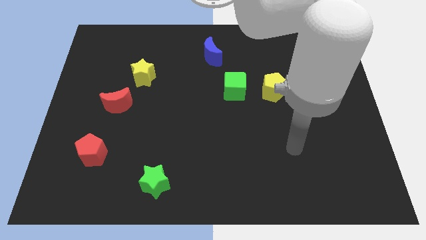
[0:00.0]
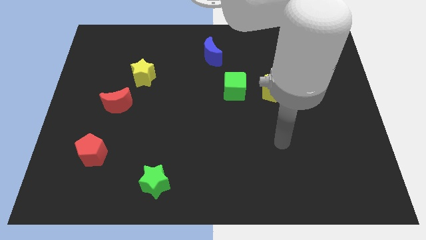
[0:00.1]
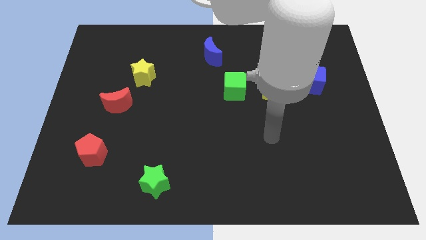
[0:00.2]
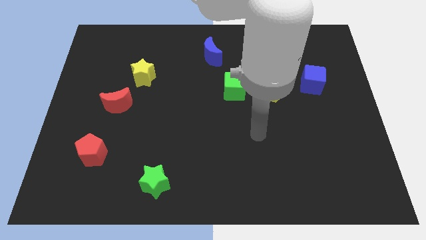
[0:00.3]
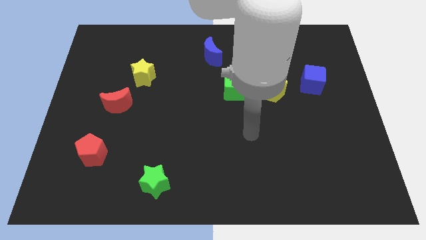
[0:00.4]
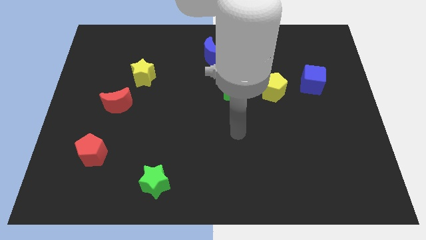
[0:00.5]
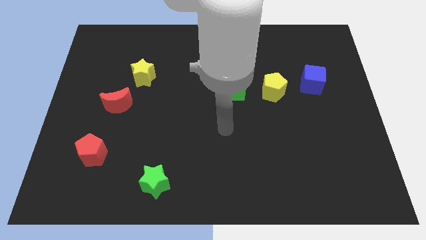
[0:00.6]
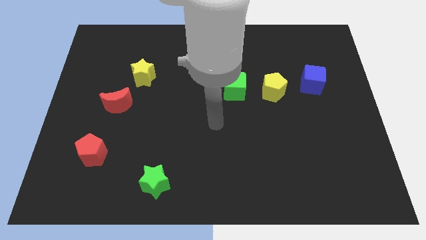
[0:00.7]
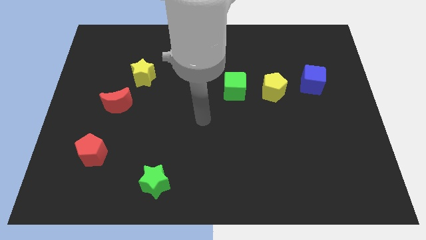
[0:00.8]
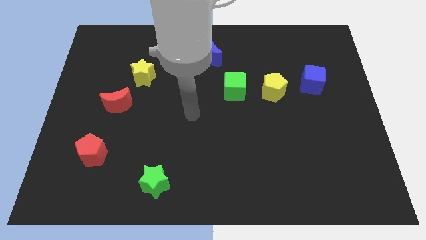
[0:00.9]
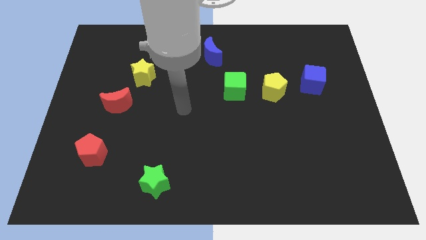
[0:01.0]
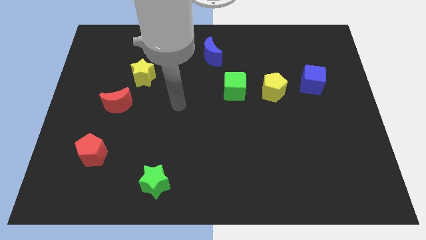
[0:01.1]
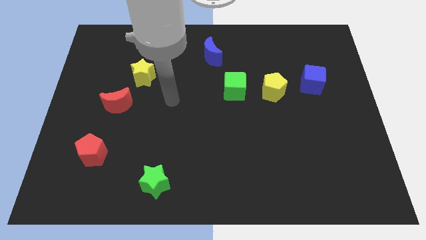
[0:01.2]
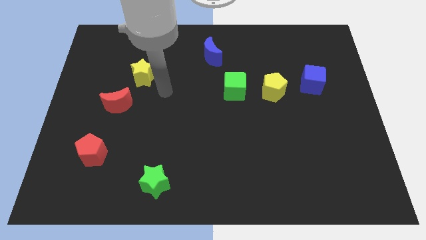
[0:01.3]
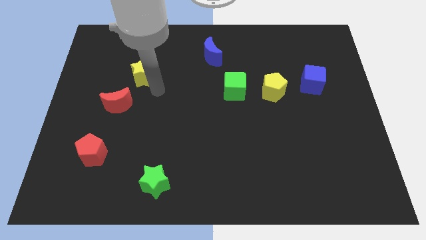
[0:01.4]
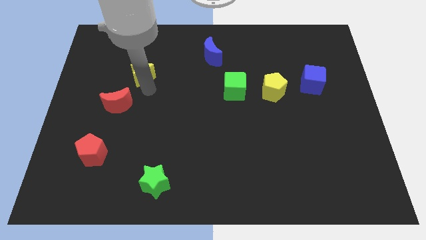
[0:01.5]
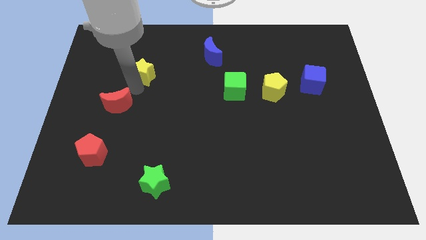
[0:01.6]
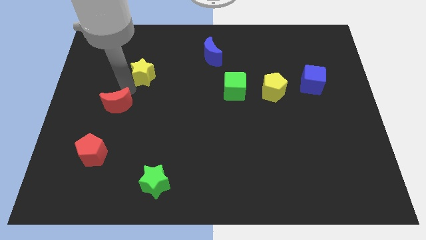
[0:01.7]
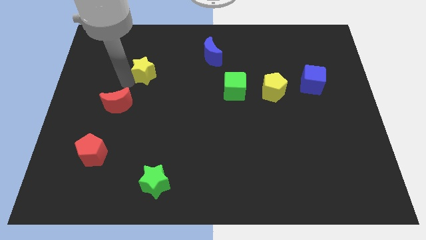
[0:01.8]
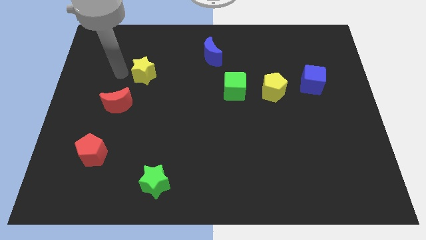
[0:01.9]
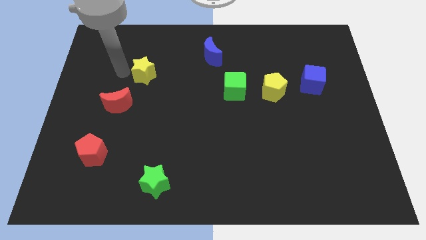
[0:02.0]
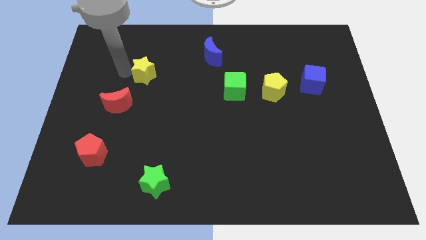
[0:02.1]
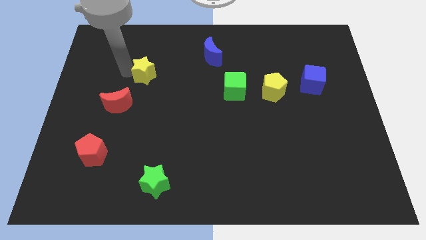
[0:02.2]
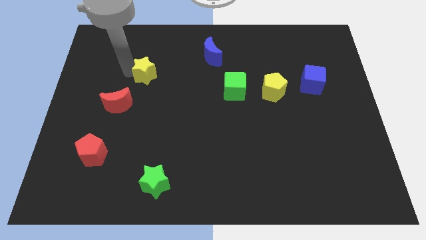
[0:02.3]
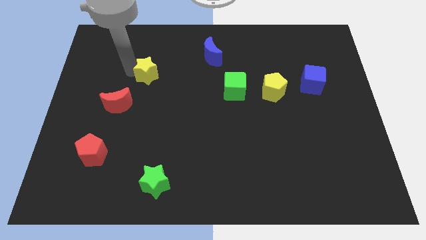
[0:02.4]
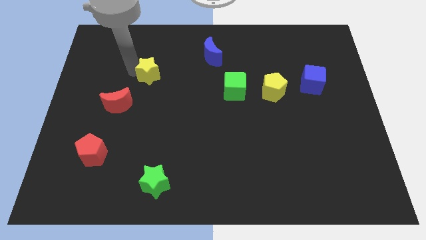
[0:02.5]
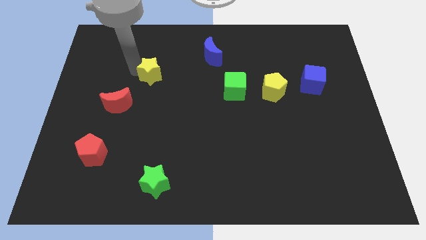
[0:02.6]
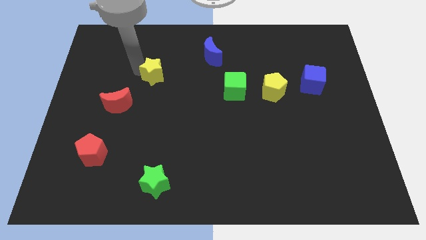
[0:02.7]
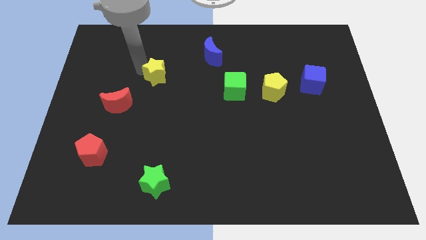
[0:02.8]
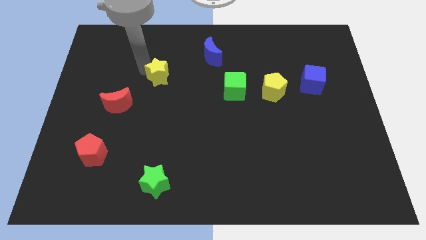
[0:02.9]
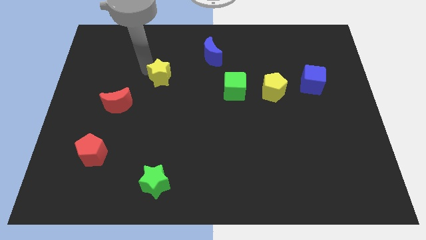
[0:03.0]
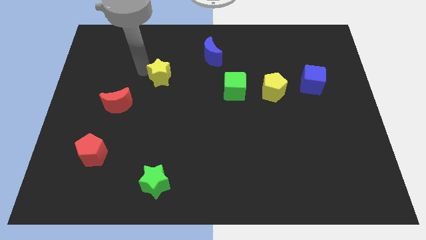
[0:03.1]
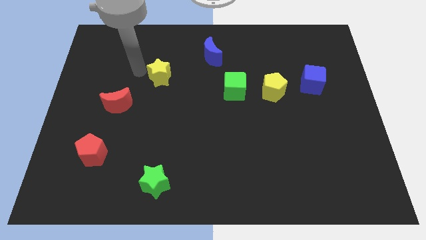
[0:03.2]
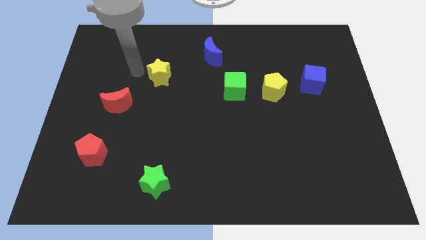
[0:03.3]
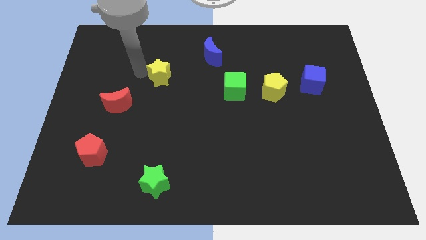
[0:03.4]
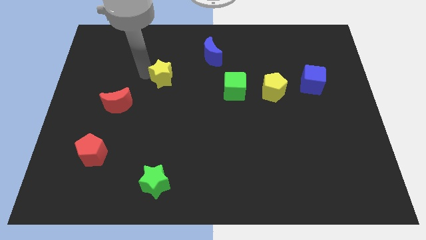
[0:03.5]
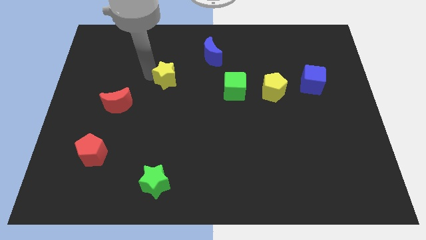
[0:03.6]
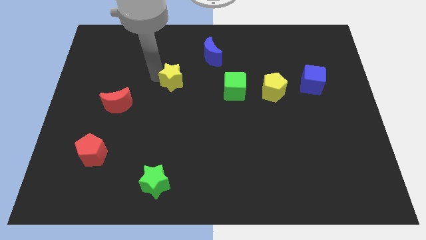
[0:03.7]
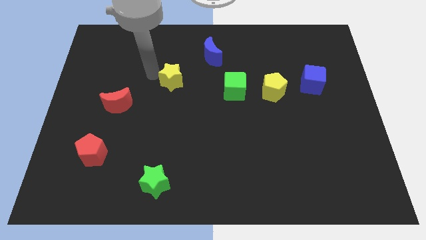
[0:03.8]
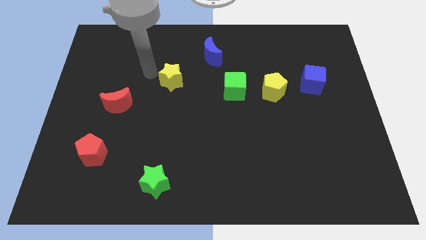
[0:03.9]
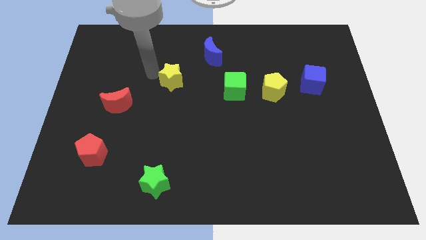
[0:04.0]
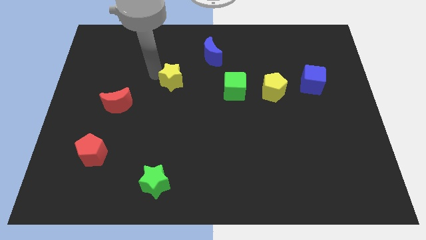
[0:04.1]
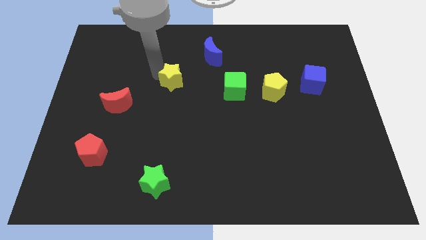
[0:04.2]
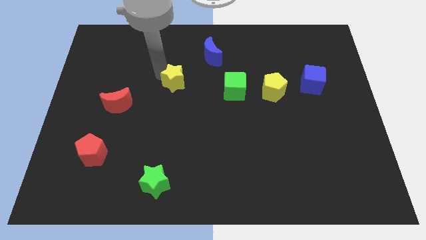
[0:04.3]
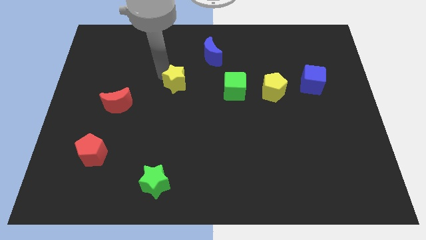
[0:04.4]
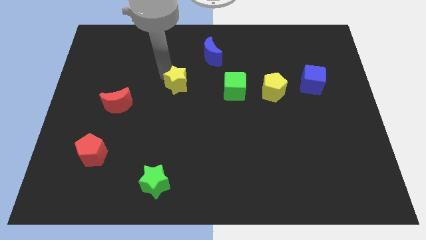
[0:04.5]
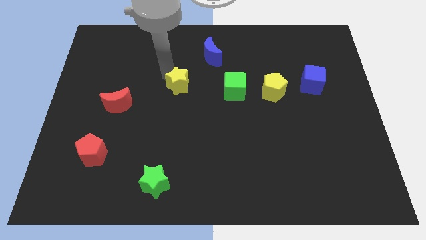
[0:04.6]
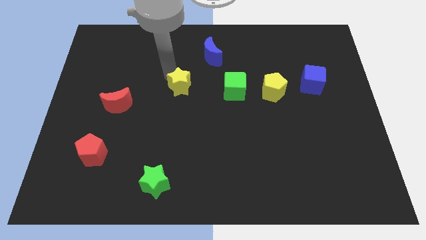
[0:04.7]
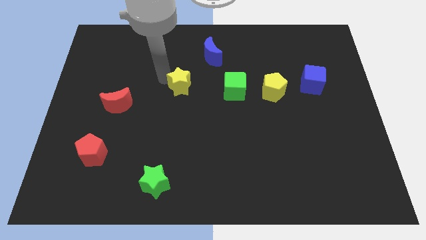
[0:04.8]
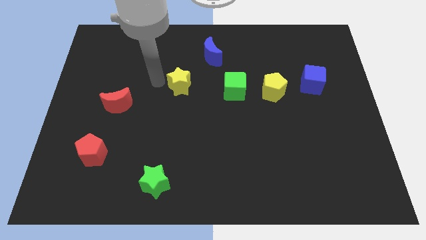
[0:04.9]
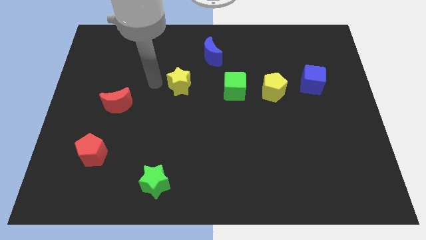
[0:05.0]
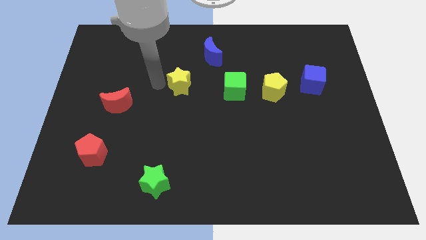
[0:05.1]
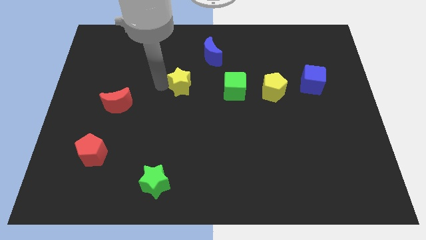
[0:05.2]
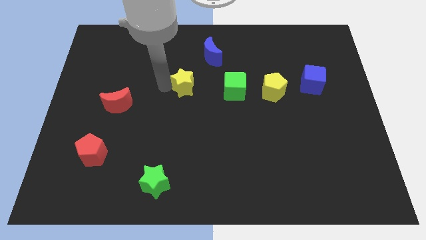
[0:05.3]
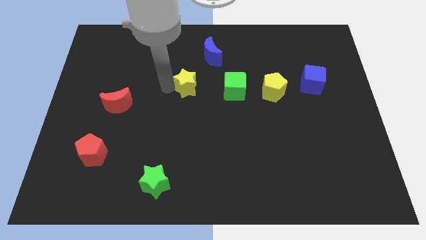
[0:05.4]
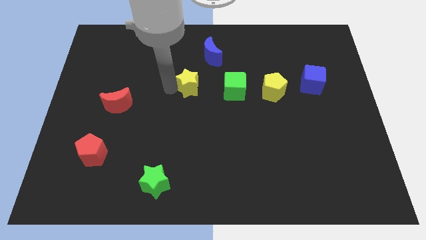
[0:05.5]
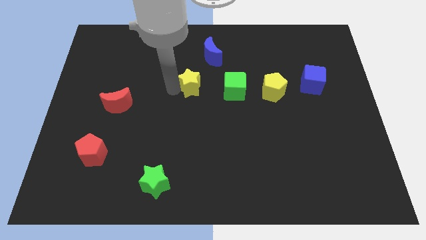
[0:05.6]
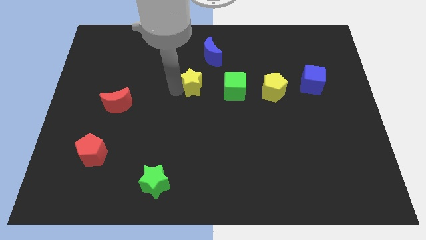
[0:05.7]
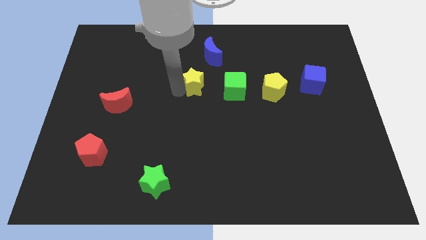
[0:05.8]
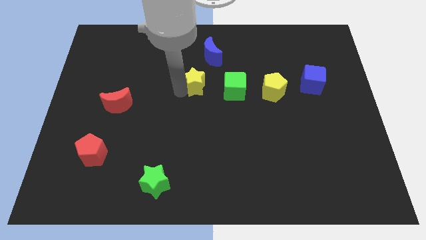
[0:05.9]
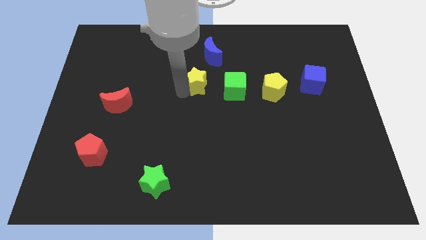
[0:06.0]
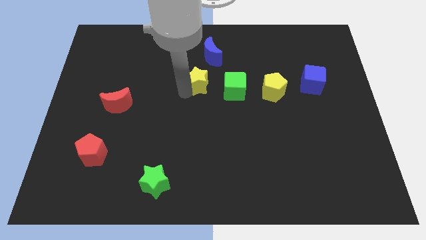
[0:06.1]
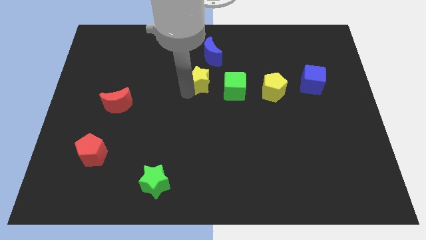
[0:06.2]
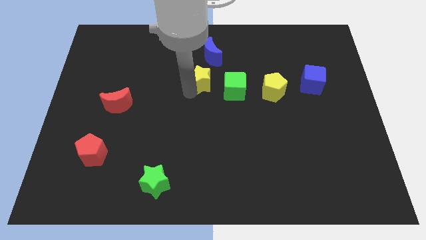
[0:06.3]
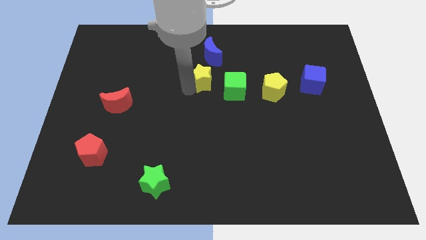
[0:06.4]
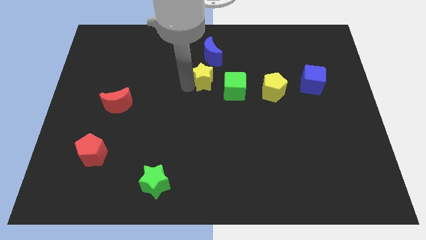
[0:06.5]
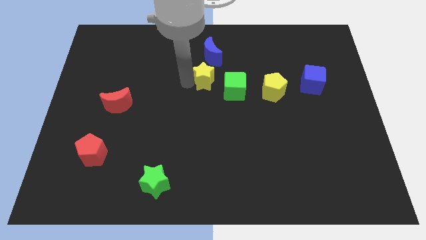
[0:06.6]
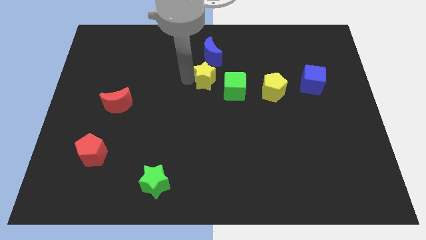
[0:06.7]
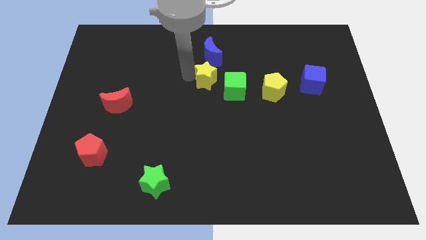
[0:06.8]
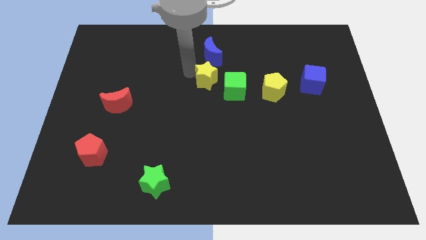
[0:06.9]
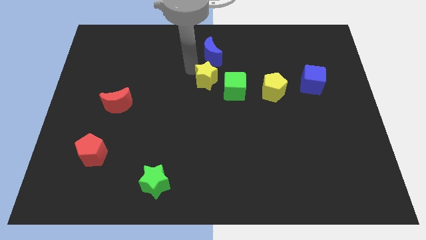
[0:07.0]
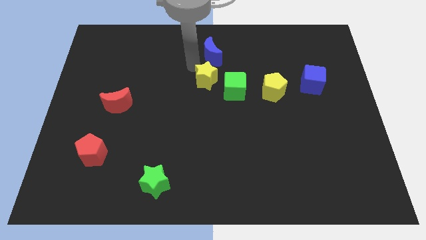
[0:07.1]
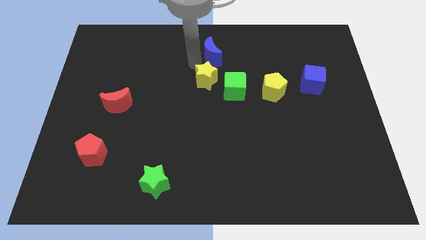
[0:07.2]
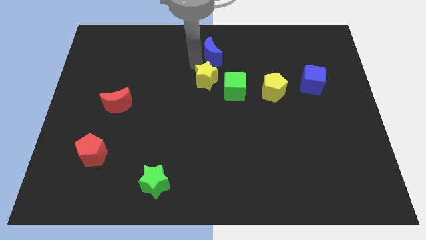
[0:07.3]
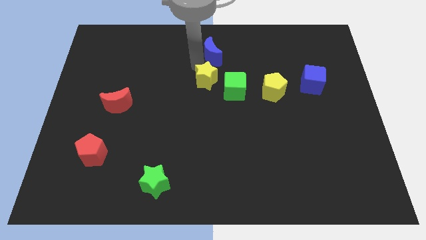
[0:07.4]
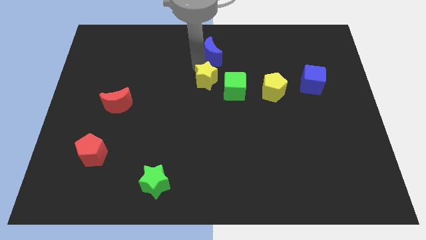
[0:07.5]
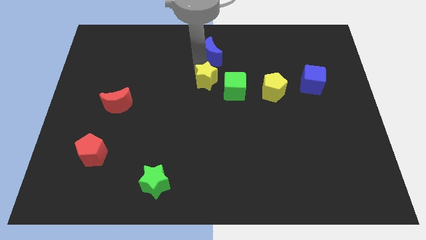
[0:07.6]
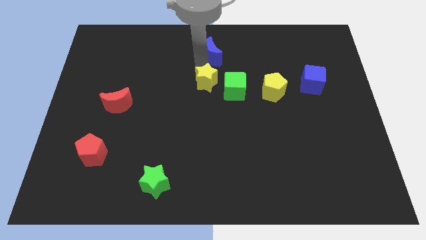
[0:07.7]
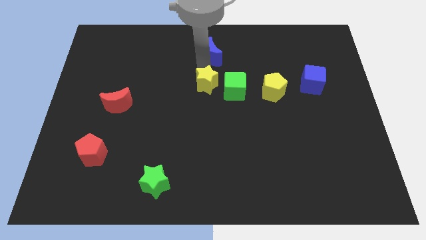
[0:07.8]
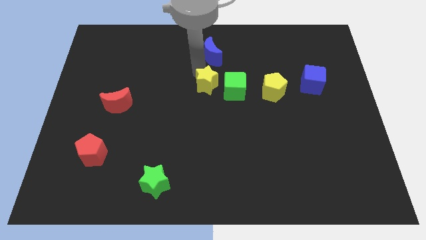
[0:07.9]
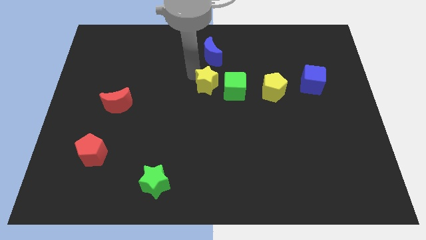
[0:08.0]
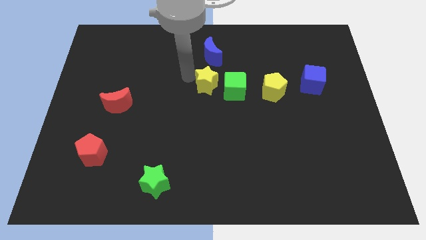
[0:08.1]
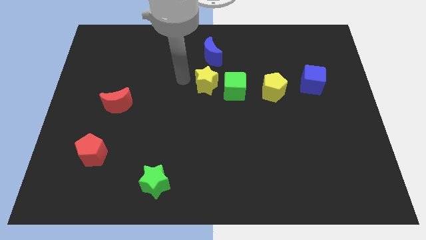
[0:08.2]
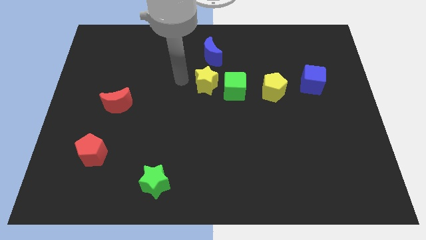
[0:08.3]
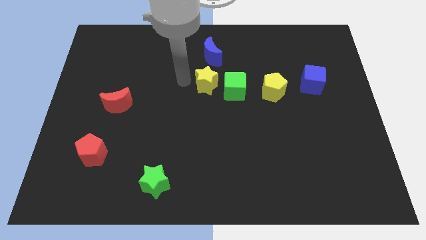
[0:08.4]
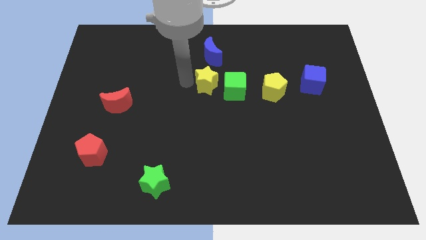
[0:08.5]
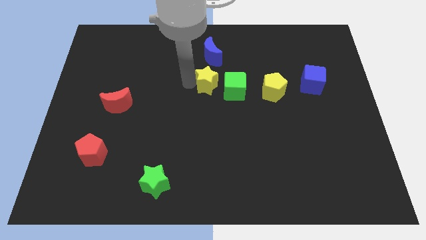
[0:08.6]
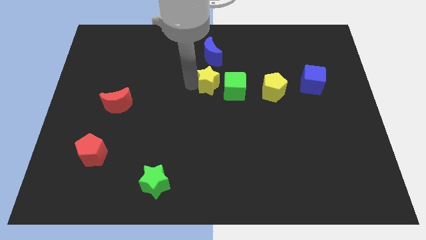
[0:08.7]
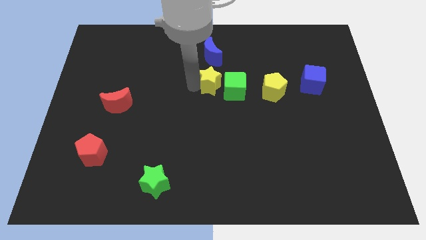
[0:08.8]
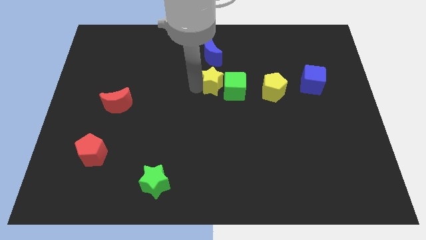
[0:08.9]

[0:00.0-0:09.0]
put the yellow star towards the green cube
